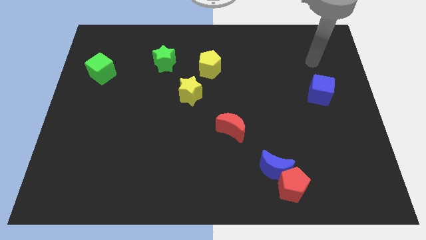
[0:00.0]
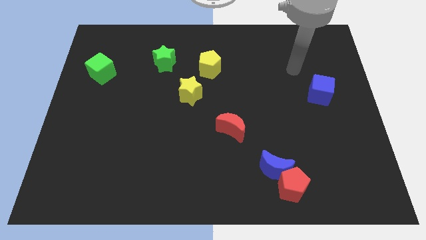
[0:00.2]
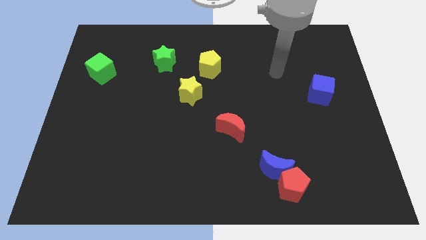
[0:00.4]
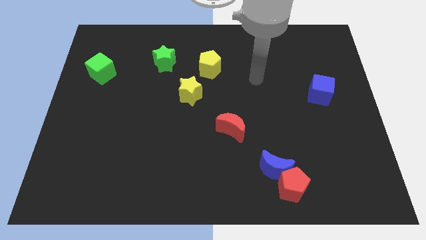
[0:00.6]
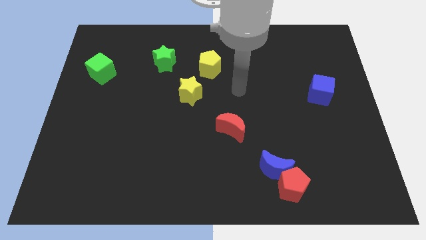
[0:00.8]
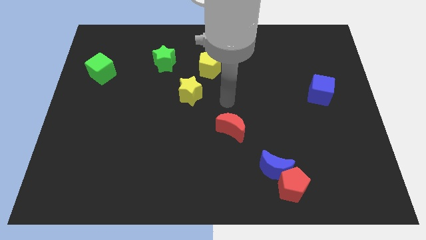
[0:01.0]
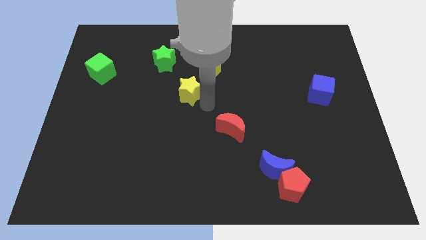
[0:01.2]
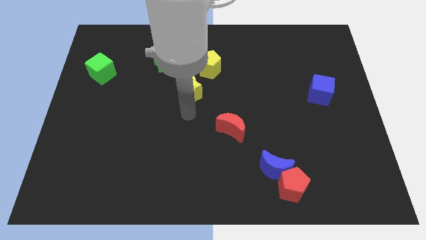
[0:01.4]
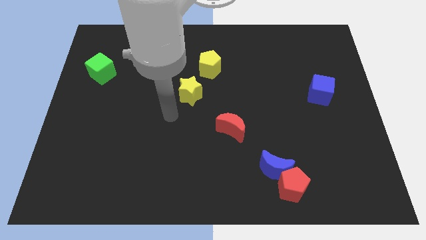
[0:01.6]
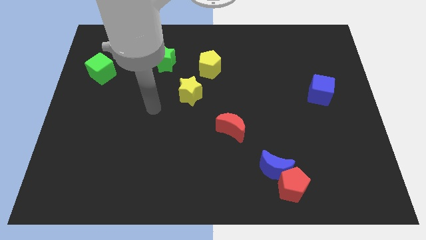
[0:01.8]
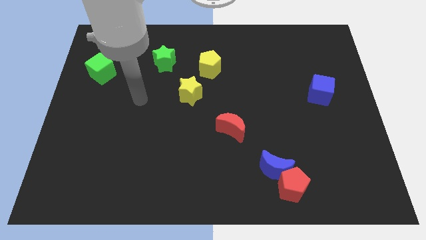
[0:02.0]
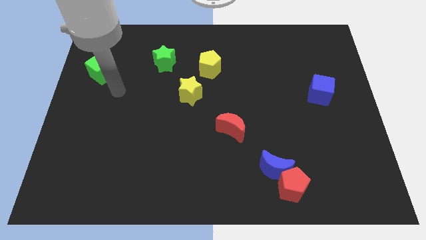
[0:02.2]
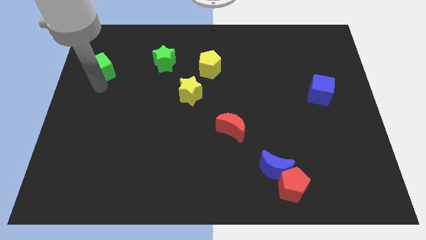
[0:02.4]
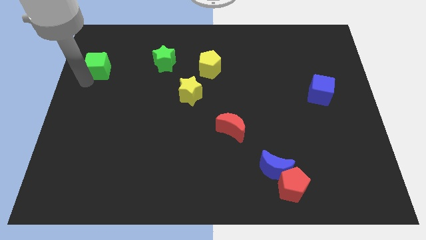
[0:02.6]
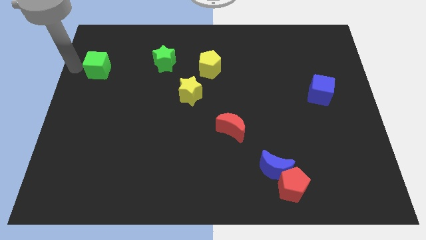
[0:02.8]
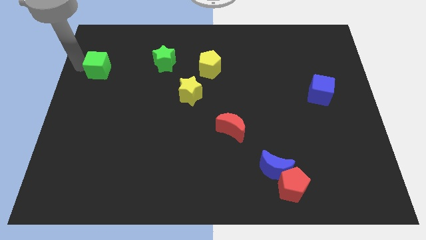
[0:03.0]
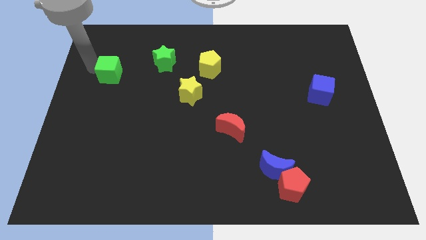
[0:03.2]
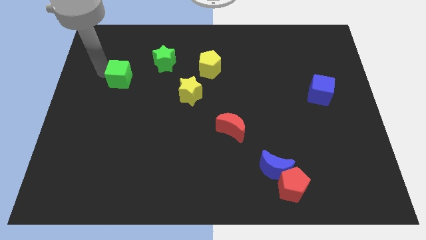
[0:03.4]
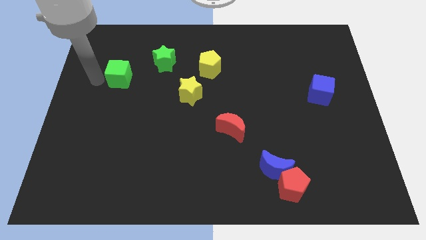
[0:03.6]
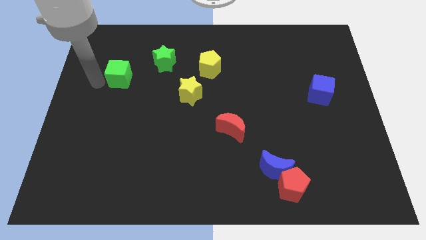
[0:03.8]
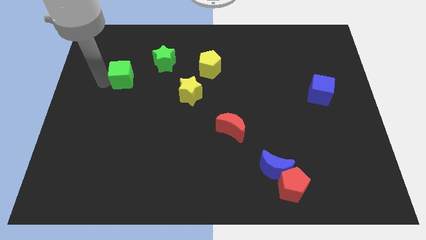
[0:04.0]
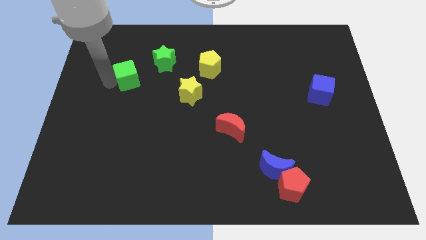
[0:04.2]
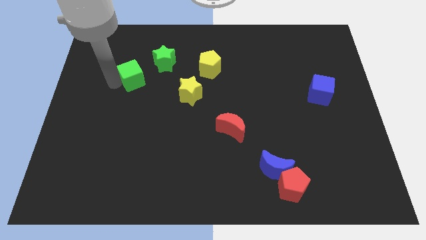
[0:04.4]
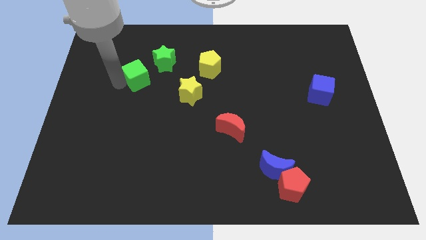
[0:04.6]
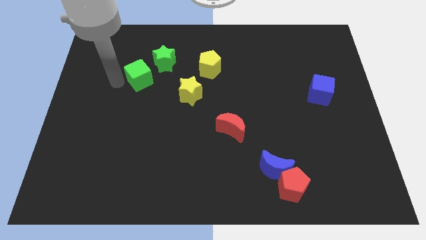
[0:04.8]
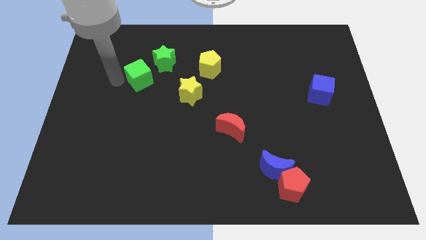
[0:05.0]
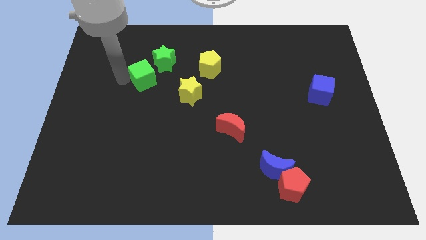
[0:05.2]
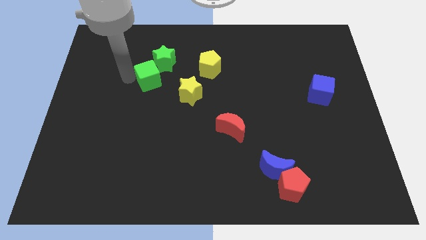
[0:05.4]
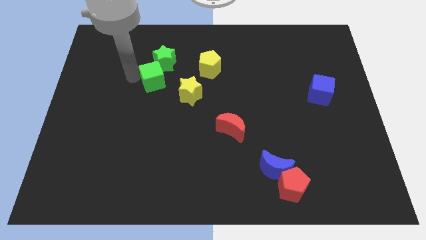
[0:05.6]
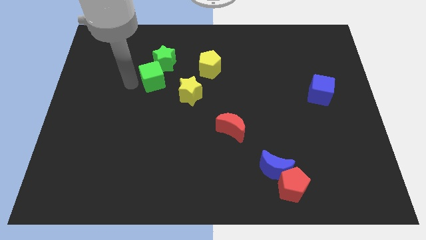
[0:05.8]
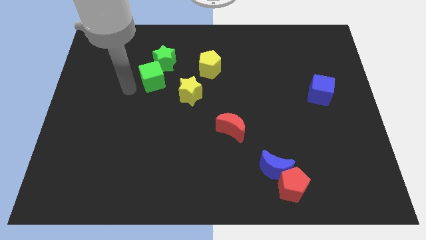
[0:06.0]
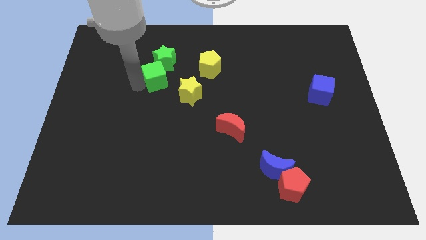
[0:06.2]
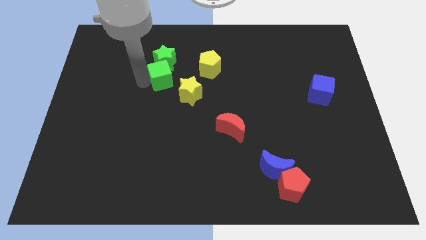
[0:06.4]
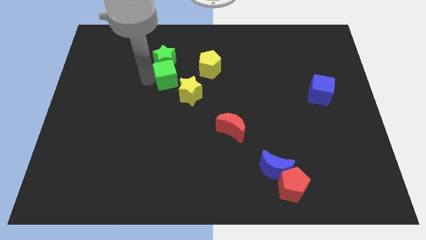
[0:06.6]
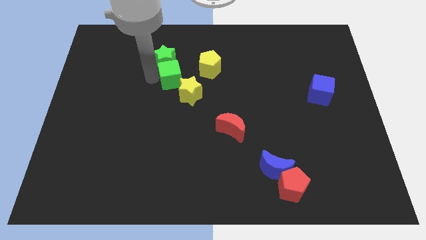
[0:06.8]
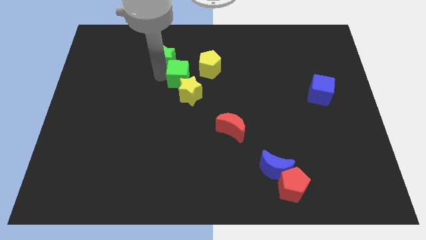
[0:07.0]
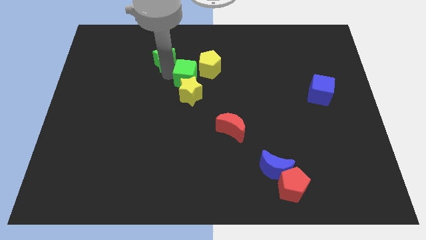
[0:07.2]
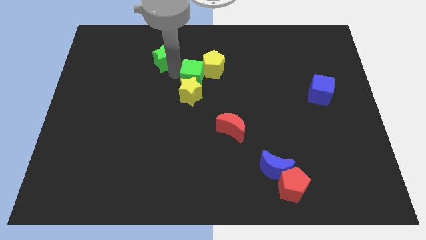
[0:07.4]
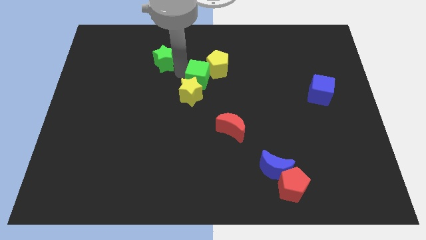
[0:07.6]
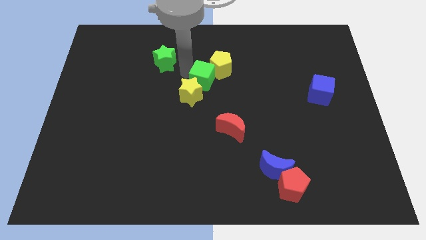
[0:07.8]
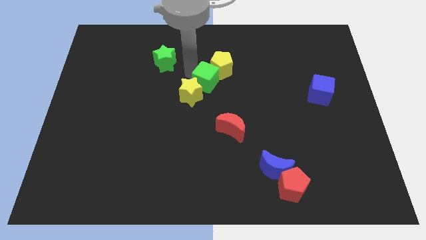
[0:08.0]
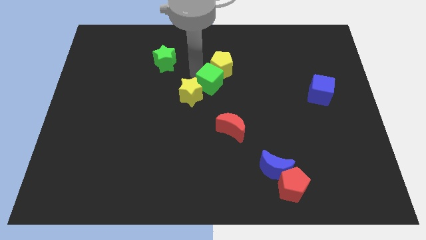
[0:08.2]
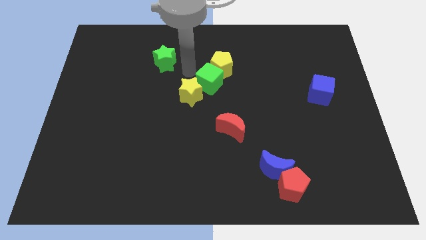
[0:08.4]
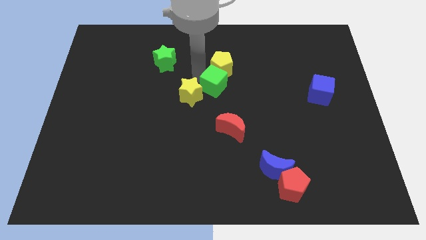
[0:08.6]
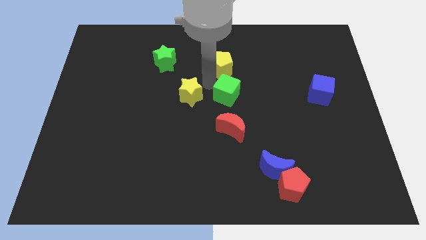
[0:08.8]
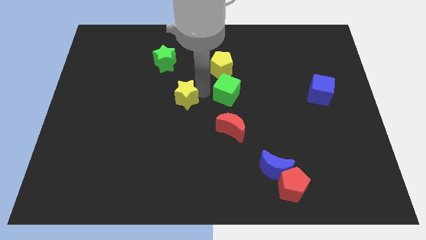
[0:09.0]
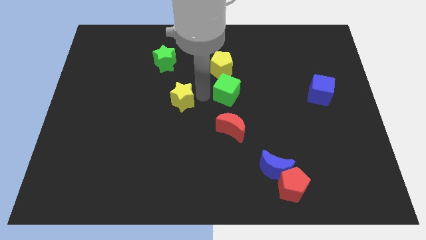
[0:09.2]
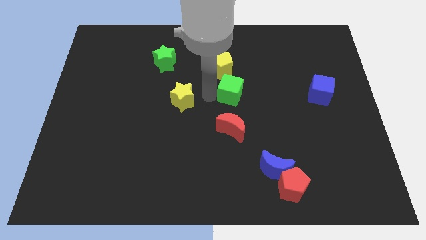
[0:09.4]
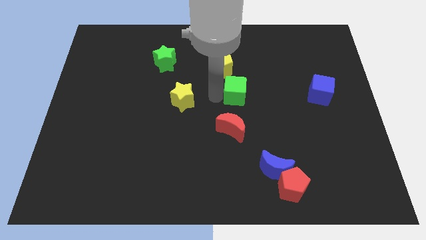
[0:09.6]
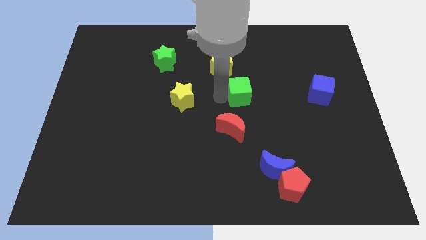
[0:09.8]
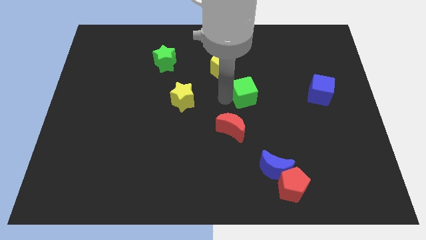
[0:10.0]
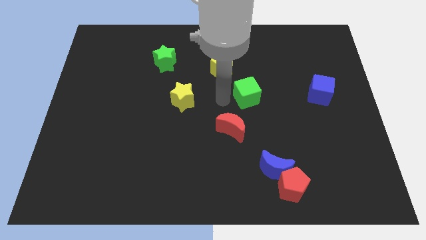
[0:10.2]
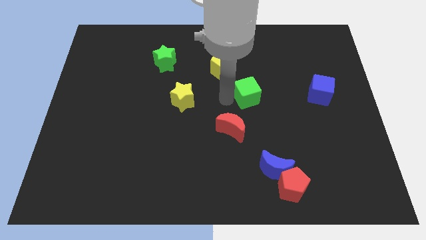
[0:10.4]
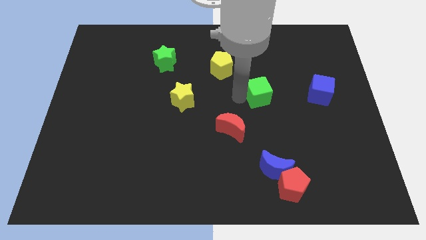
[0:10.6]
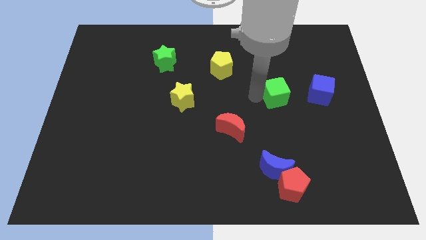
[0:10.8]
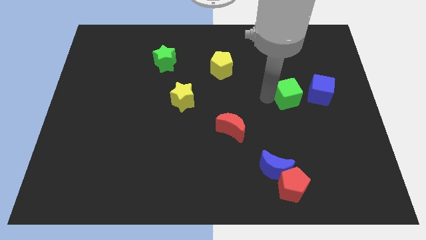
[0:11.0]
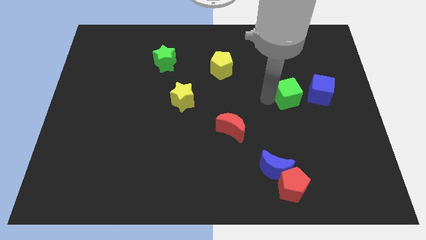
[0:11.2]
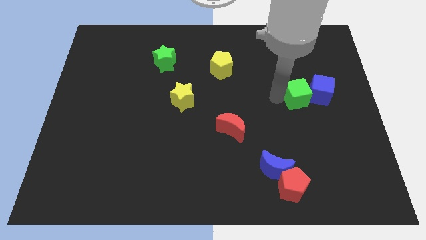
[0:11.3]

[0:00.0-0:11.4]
slide the green cube towards the blue cube

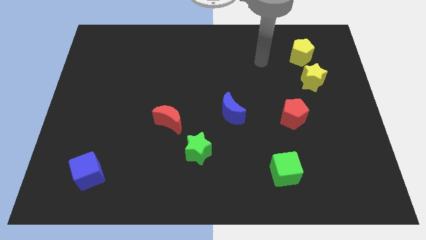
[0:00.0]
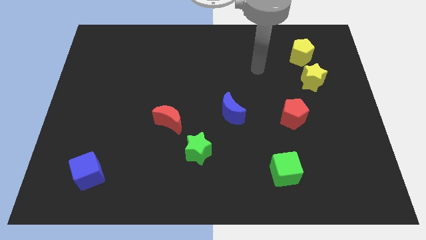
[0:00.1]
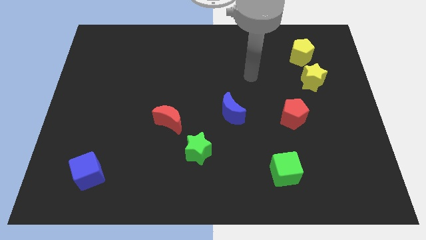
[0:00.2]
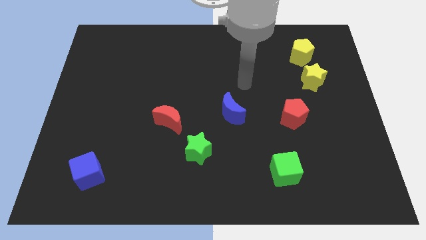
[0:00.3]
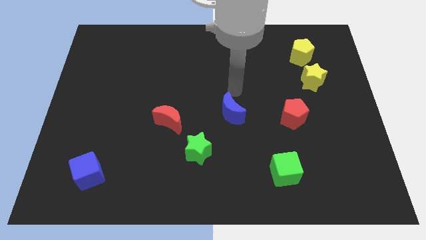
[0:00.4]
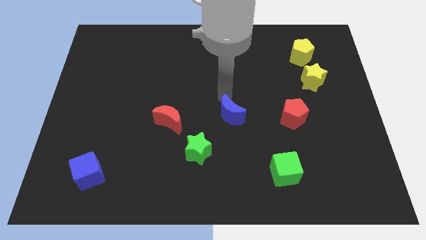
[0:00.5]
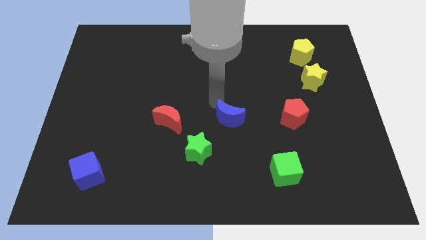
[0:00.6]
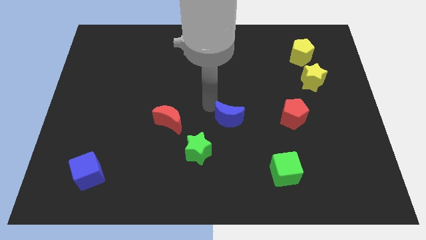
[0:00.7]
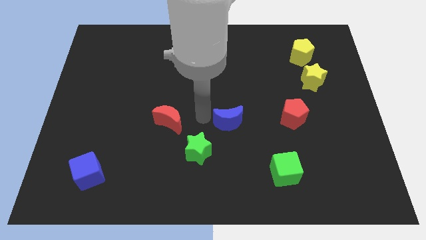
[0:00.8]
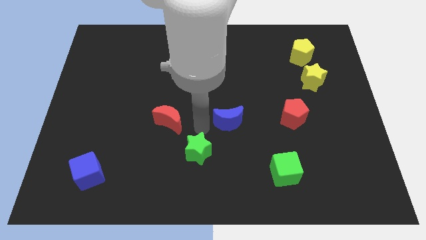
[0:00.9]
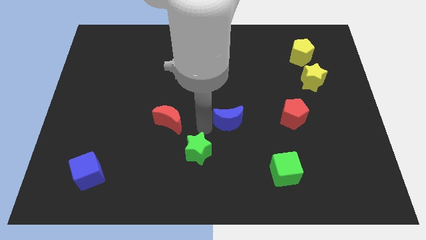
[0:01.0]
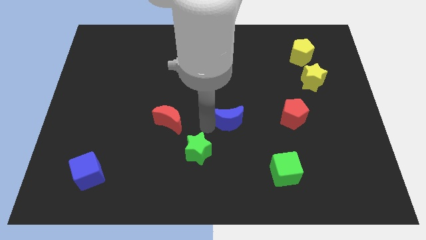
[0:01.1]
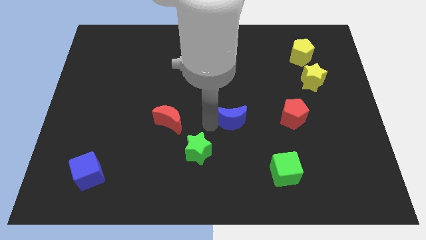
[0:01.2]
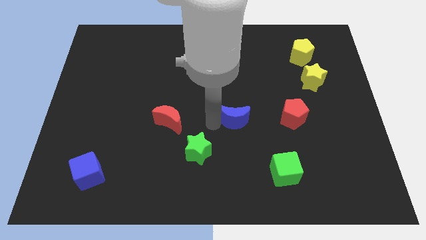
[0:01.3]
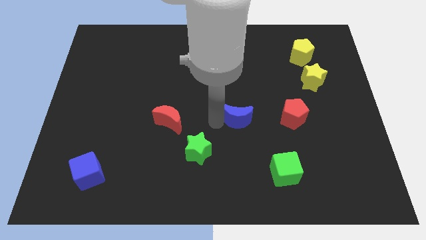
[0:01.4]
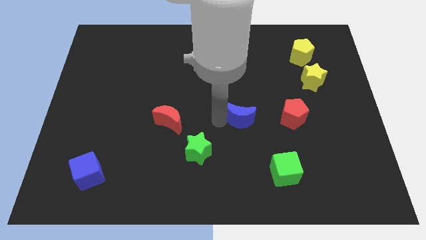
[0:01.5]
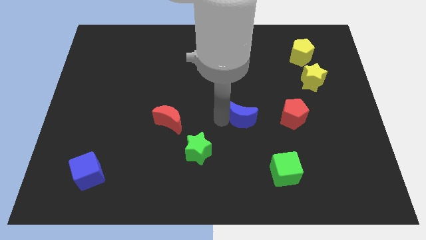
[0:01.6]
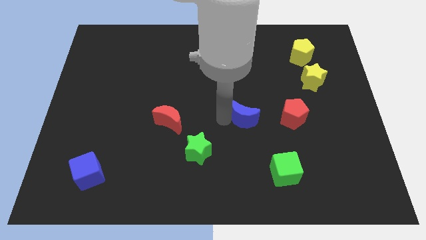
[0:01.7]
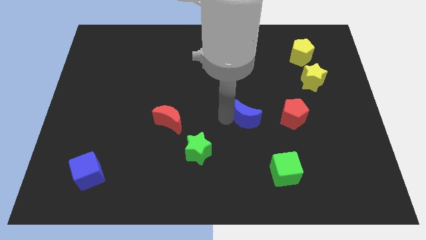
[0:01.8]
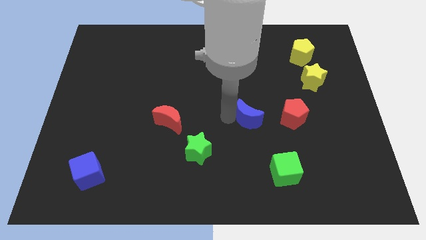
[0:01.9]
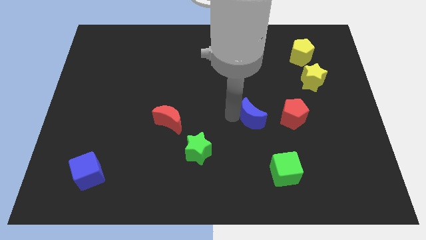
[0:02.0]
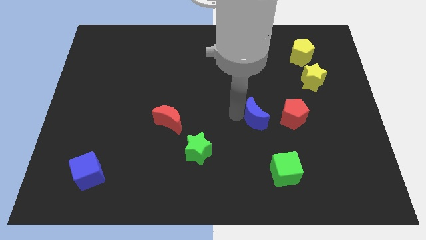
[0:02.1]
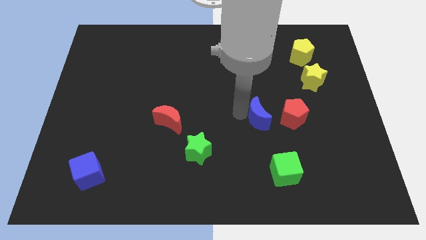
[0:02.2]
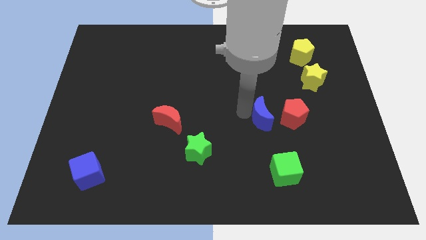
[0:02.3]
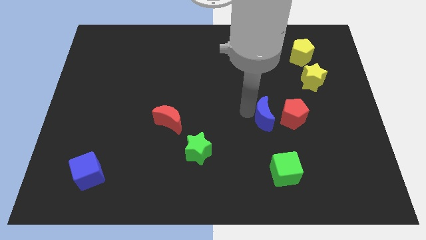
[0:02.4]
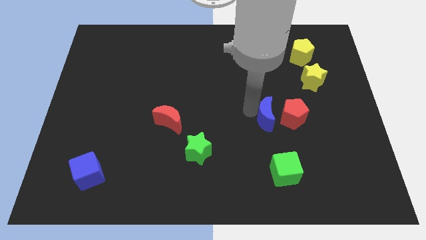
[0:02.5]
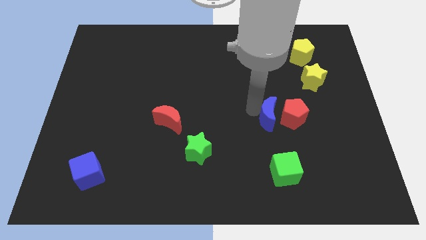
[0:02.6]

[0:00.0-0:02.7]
put the blue moon to the red pentagon
